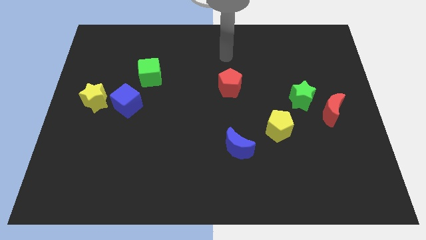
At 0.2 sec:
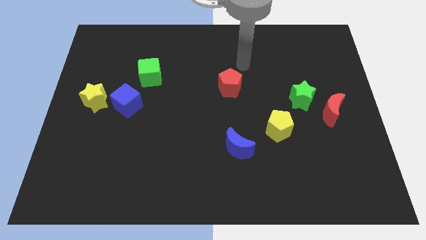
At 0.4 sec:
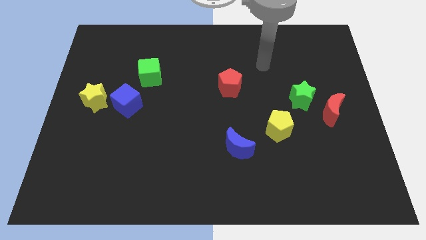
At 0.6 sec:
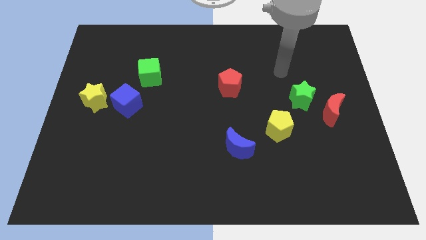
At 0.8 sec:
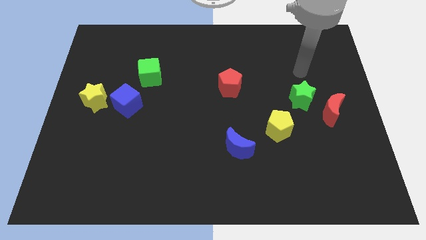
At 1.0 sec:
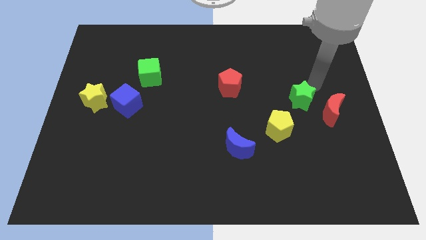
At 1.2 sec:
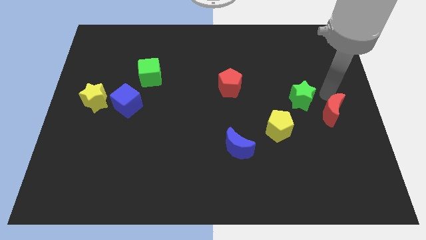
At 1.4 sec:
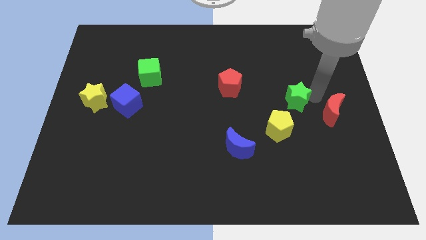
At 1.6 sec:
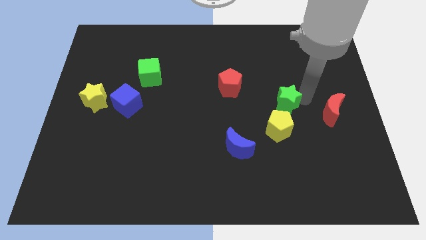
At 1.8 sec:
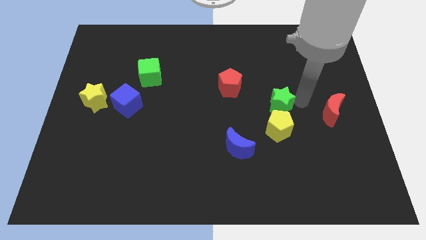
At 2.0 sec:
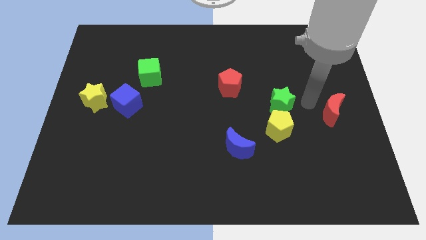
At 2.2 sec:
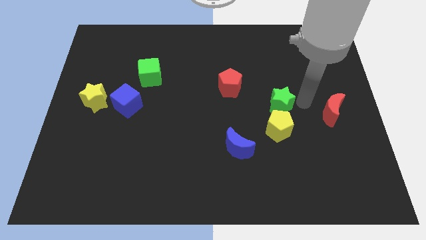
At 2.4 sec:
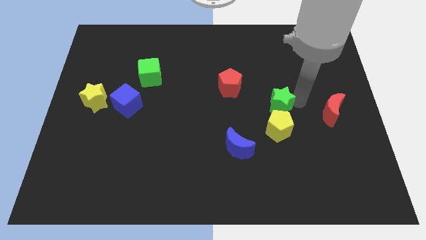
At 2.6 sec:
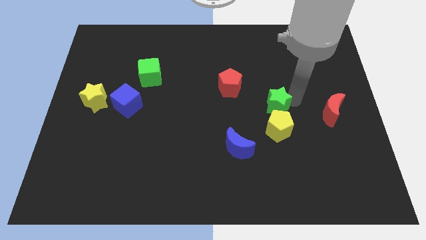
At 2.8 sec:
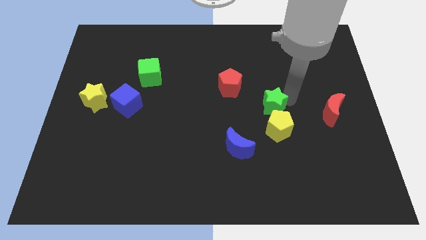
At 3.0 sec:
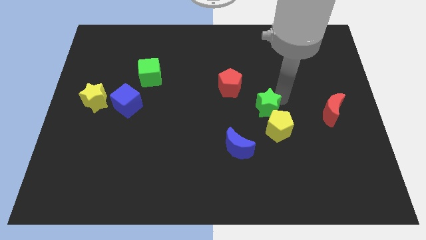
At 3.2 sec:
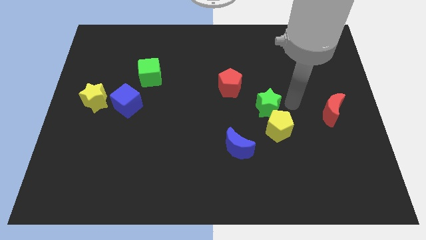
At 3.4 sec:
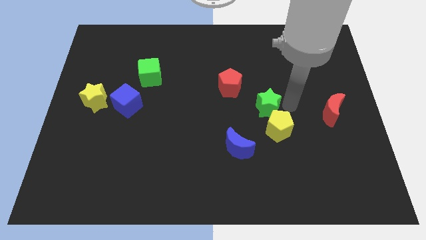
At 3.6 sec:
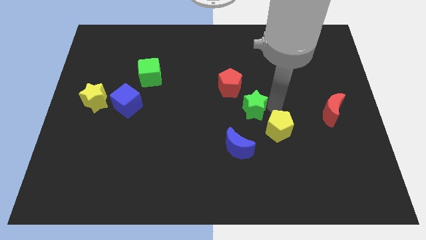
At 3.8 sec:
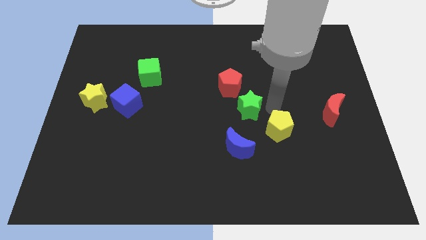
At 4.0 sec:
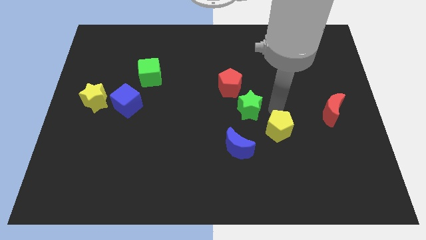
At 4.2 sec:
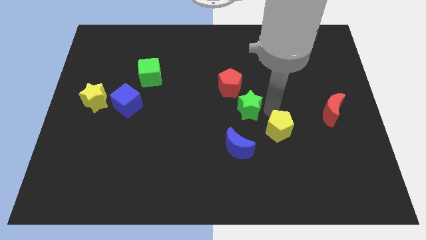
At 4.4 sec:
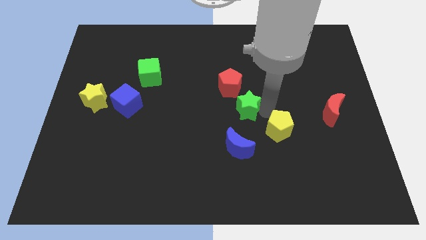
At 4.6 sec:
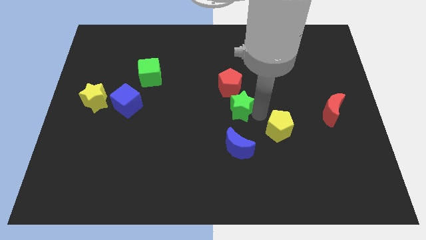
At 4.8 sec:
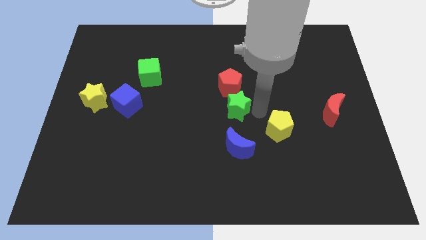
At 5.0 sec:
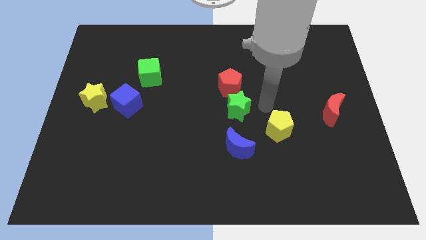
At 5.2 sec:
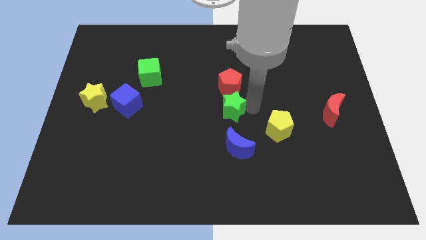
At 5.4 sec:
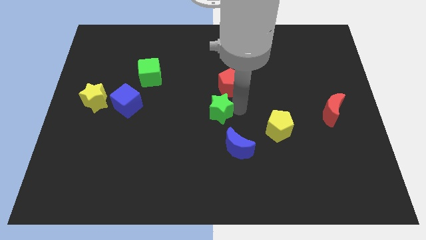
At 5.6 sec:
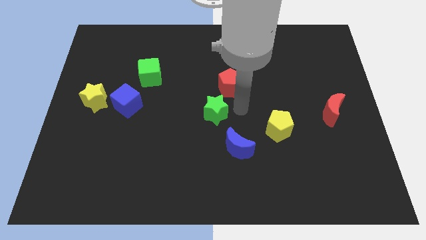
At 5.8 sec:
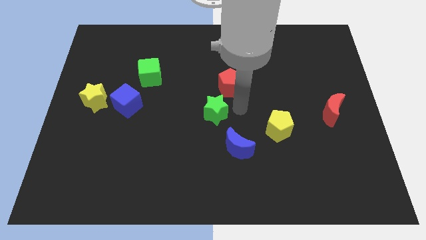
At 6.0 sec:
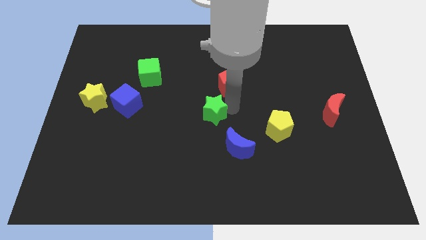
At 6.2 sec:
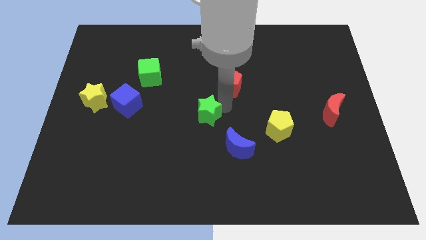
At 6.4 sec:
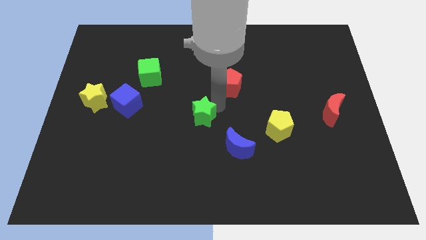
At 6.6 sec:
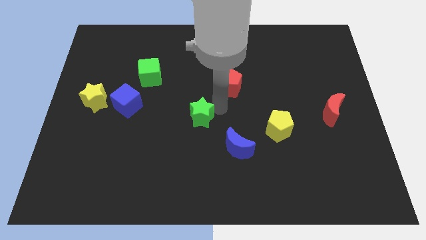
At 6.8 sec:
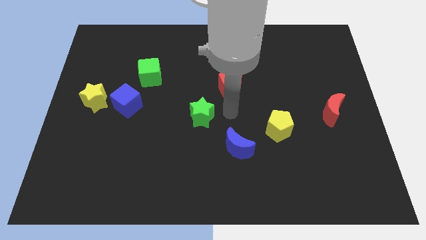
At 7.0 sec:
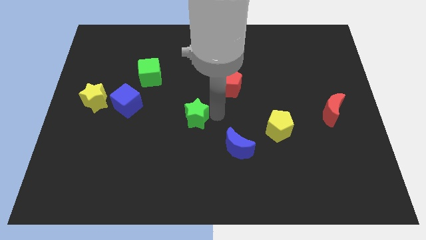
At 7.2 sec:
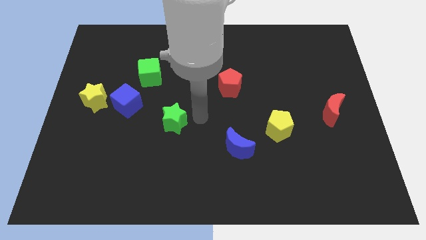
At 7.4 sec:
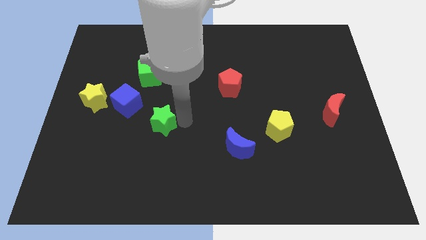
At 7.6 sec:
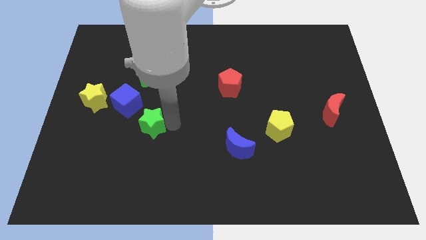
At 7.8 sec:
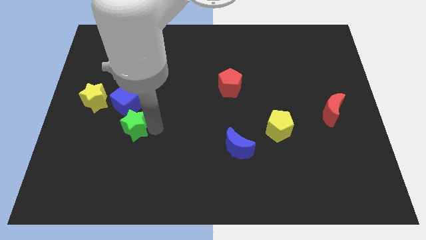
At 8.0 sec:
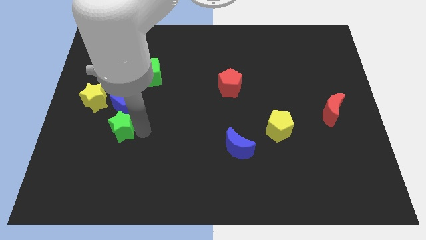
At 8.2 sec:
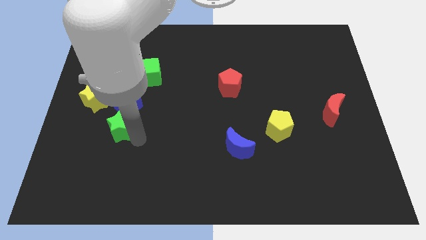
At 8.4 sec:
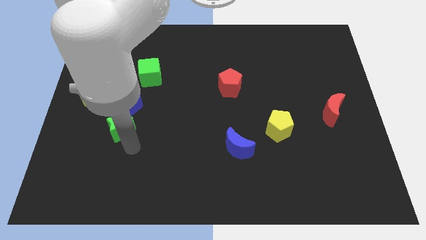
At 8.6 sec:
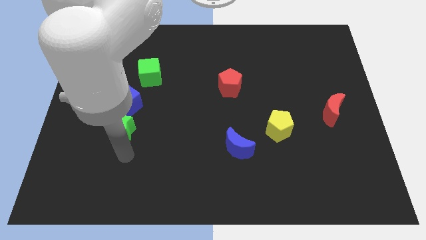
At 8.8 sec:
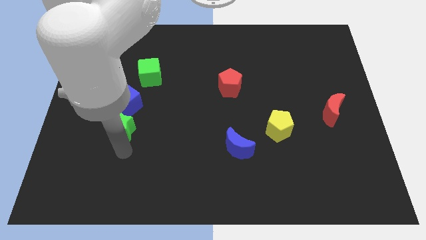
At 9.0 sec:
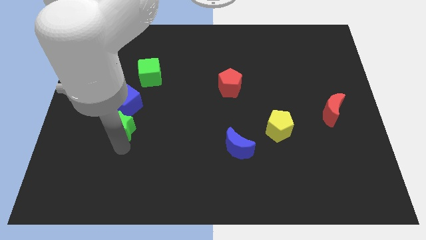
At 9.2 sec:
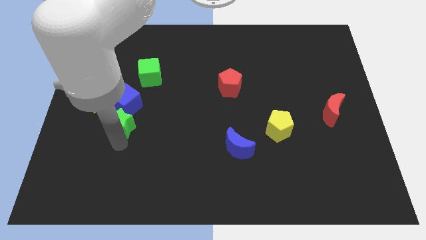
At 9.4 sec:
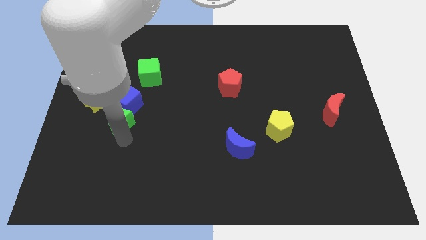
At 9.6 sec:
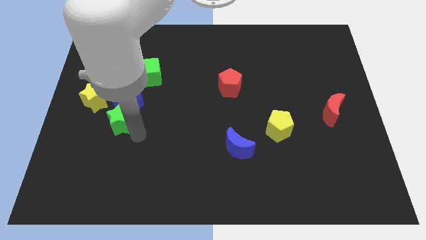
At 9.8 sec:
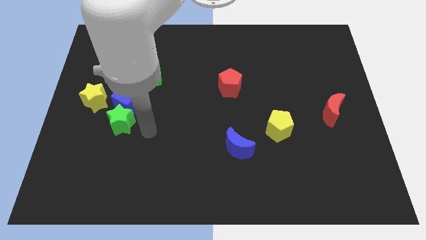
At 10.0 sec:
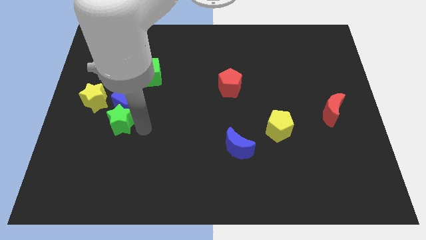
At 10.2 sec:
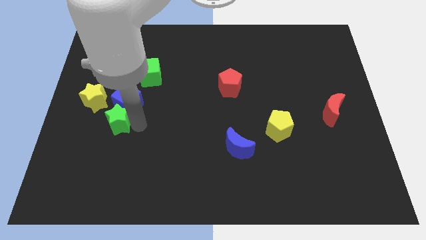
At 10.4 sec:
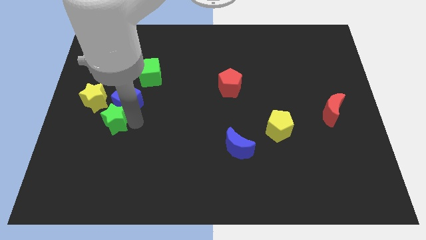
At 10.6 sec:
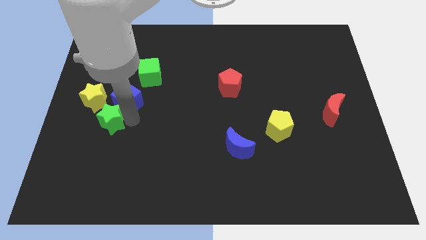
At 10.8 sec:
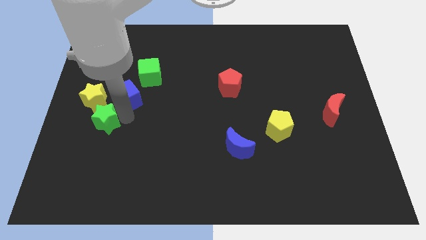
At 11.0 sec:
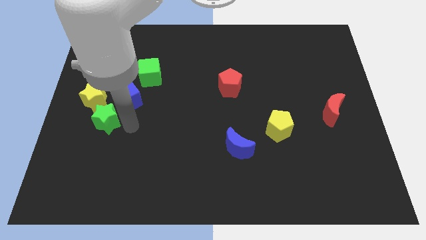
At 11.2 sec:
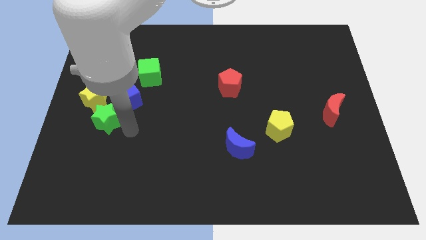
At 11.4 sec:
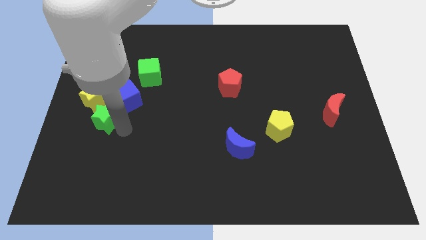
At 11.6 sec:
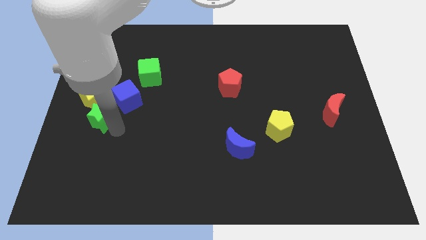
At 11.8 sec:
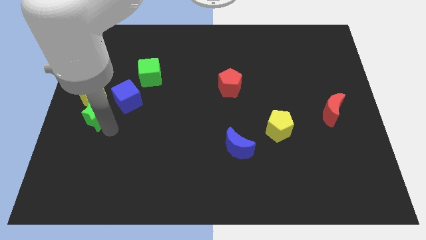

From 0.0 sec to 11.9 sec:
put the green star to the center left

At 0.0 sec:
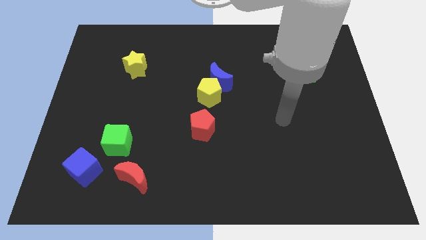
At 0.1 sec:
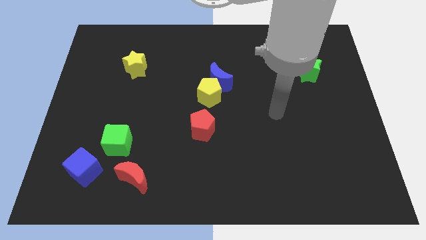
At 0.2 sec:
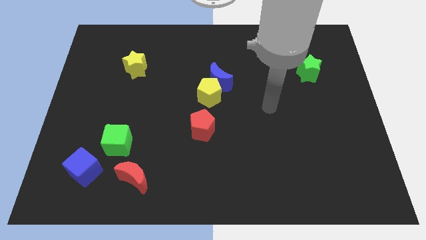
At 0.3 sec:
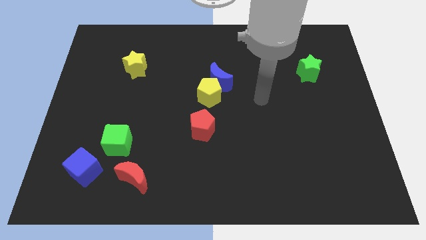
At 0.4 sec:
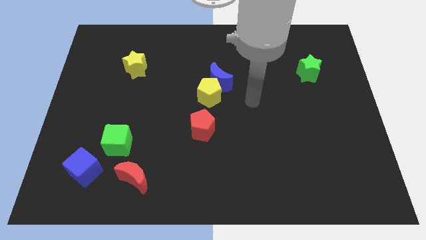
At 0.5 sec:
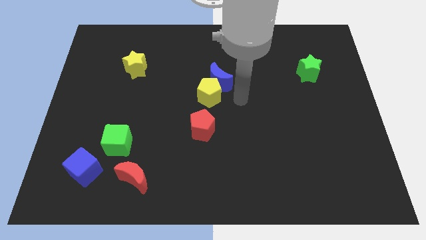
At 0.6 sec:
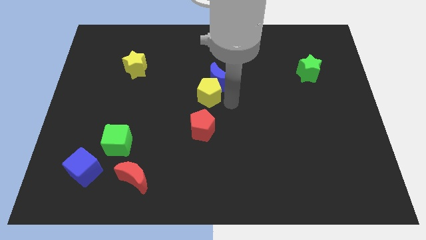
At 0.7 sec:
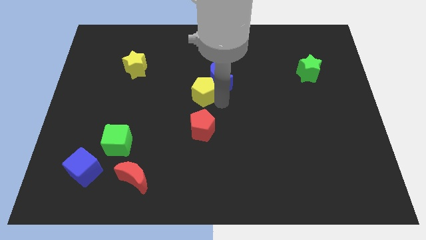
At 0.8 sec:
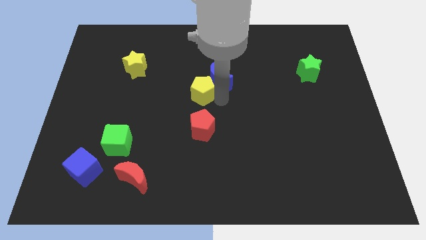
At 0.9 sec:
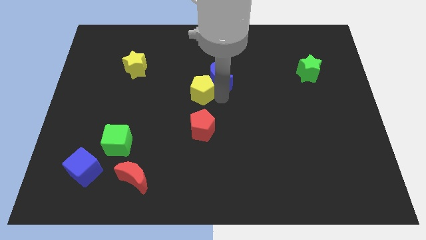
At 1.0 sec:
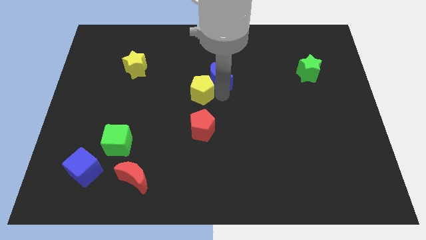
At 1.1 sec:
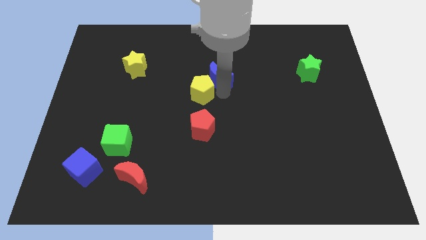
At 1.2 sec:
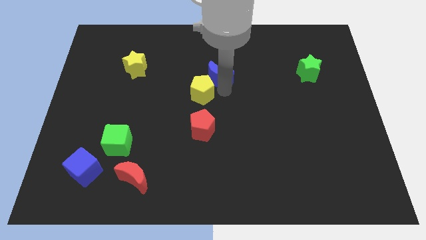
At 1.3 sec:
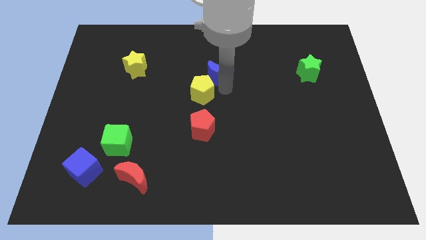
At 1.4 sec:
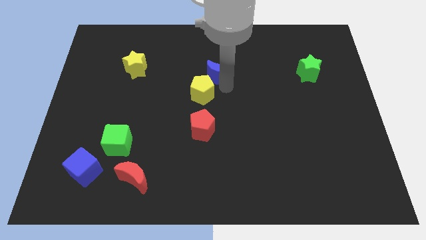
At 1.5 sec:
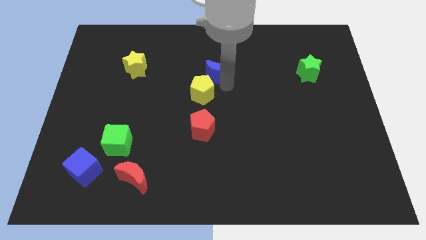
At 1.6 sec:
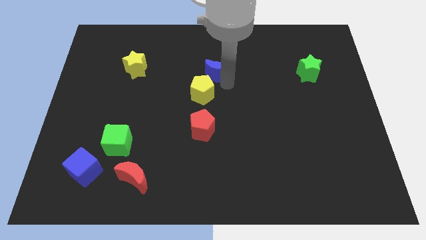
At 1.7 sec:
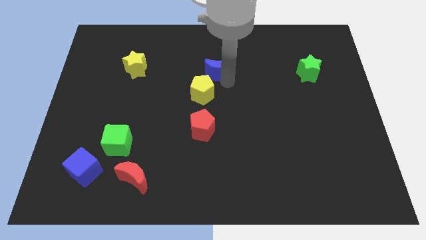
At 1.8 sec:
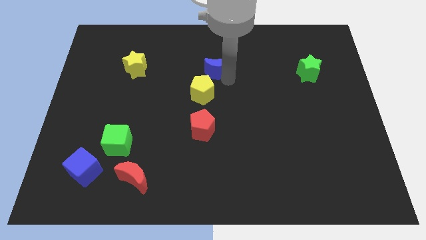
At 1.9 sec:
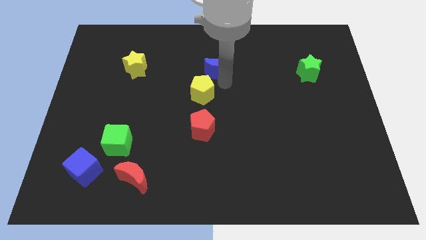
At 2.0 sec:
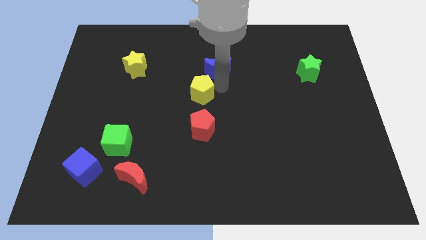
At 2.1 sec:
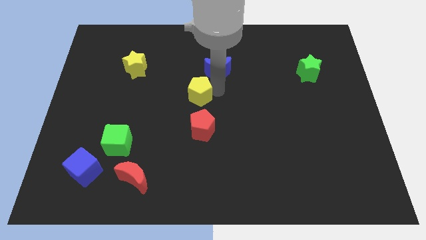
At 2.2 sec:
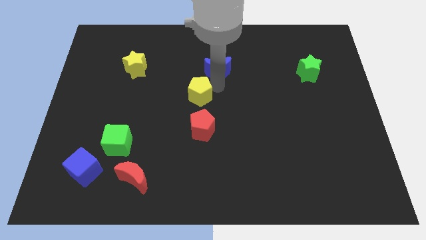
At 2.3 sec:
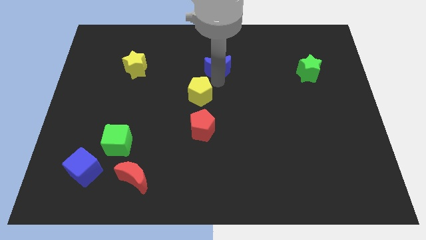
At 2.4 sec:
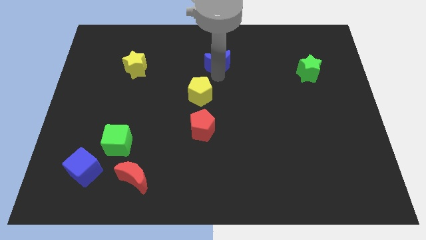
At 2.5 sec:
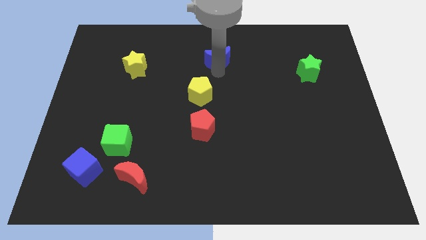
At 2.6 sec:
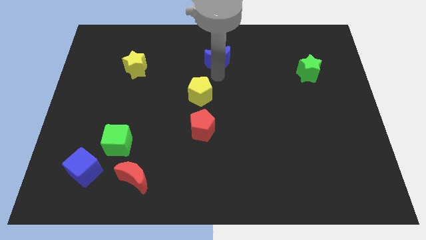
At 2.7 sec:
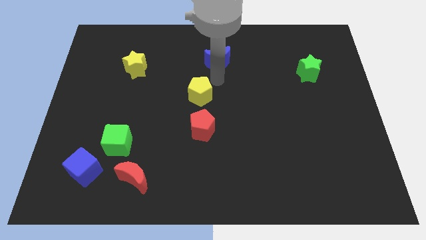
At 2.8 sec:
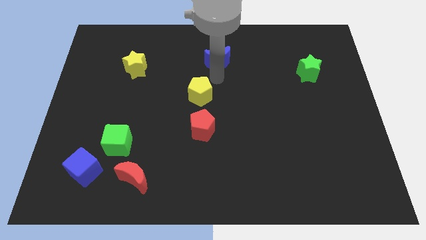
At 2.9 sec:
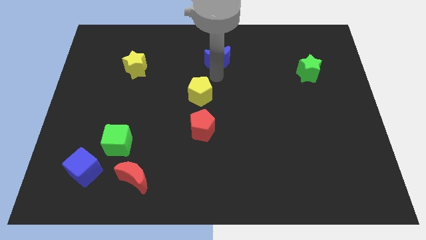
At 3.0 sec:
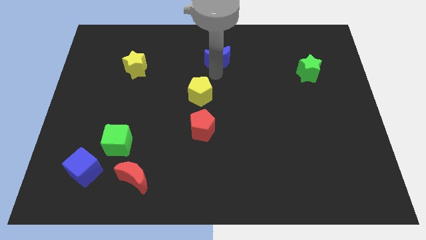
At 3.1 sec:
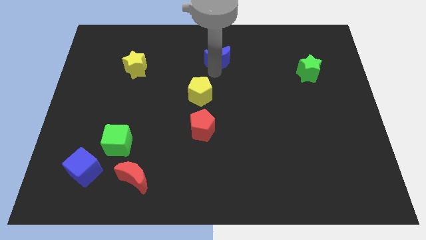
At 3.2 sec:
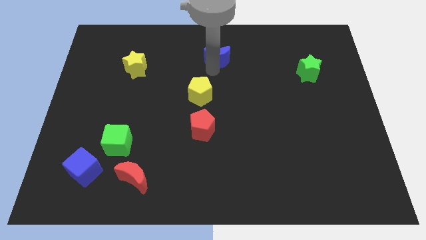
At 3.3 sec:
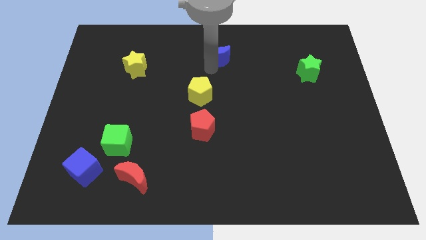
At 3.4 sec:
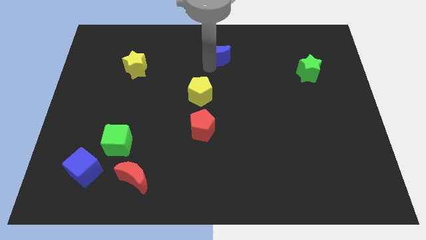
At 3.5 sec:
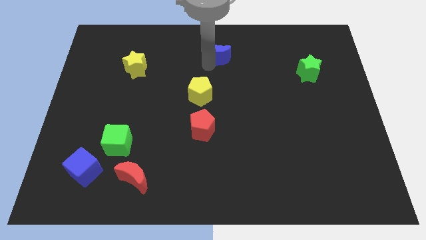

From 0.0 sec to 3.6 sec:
push the blue moon to the top
